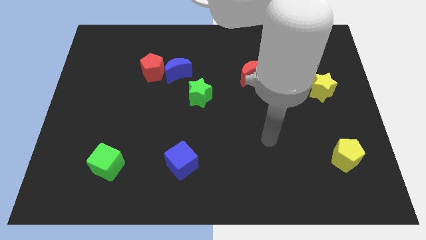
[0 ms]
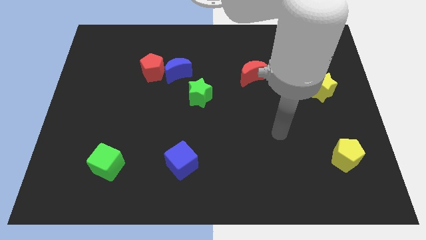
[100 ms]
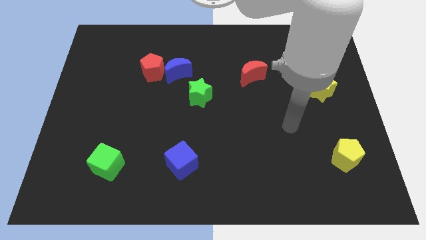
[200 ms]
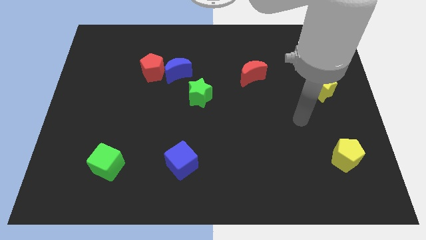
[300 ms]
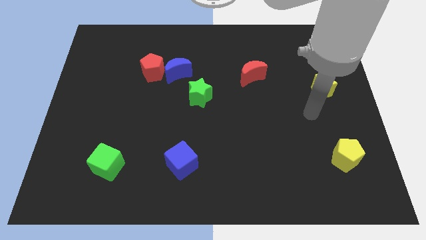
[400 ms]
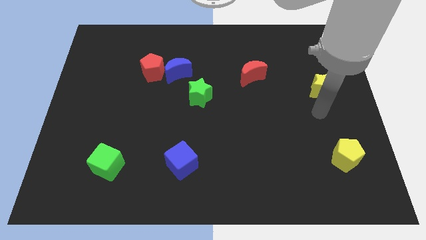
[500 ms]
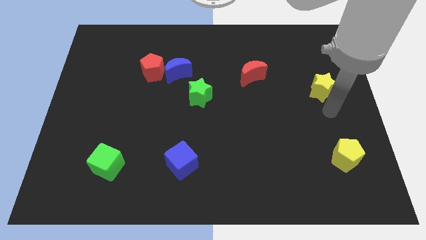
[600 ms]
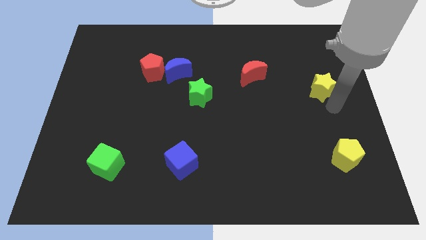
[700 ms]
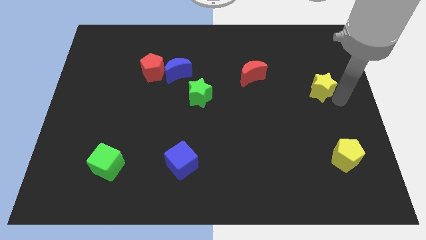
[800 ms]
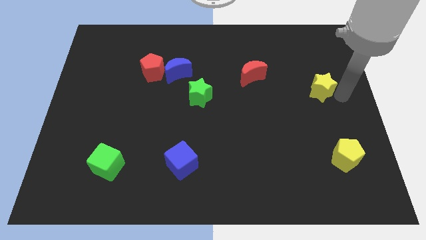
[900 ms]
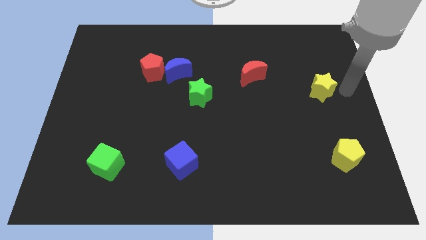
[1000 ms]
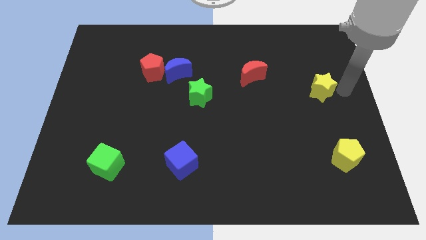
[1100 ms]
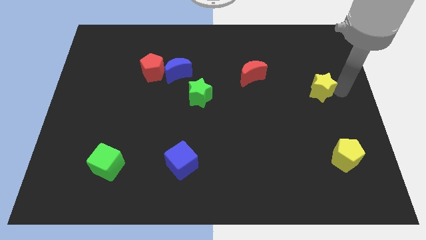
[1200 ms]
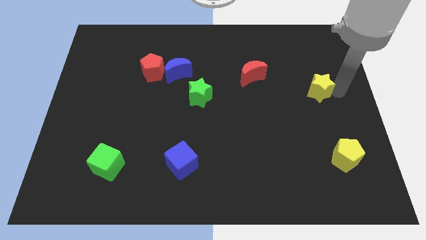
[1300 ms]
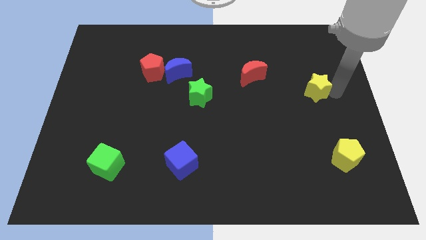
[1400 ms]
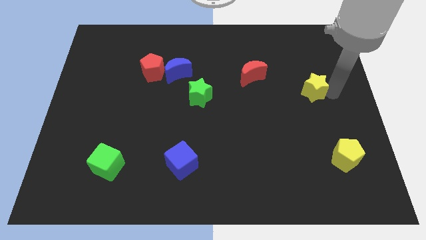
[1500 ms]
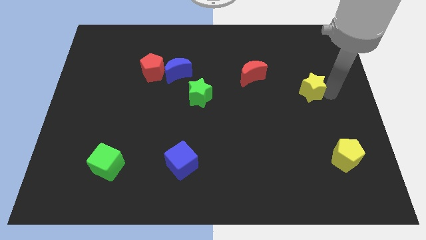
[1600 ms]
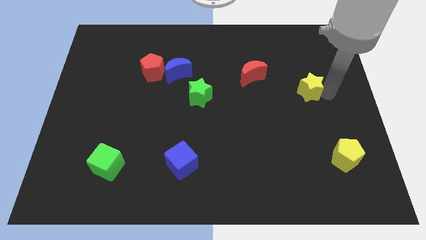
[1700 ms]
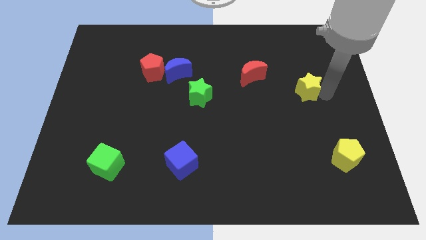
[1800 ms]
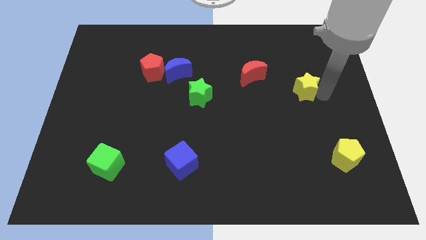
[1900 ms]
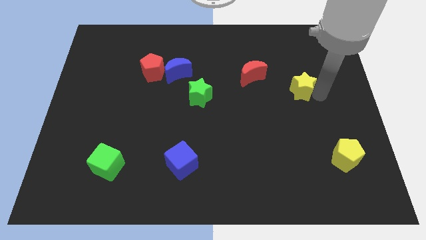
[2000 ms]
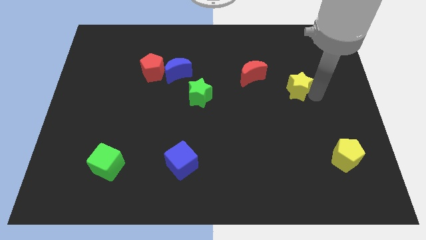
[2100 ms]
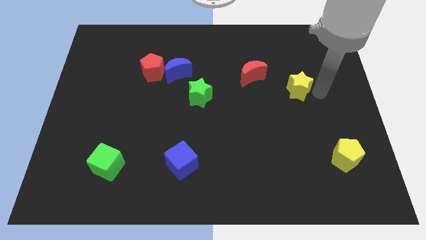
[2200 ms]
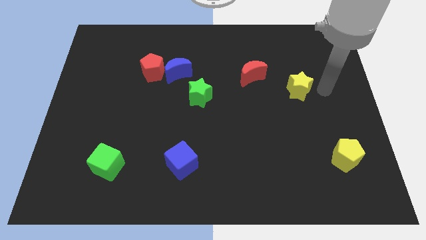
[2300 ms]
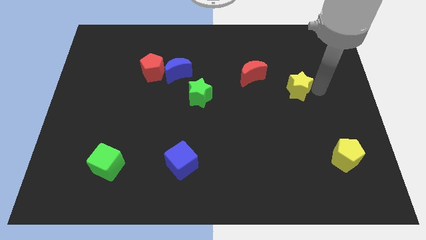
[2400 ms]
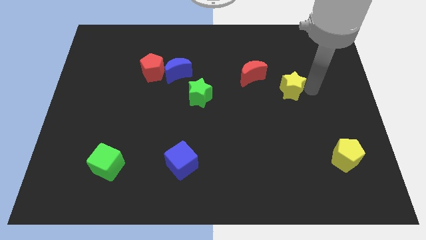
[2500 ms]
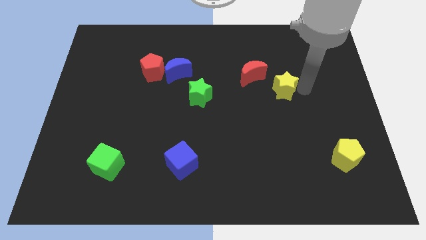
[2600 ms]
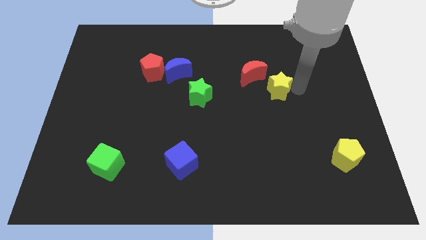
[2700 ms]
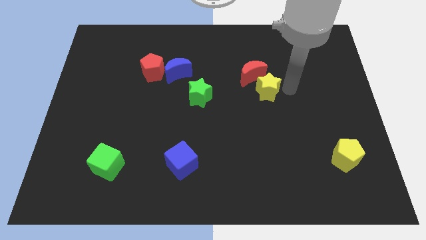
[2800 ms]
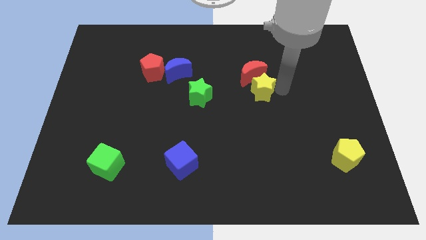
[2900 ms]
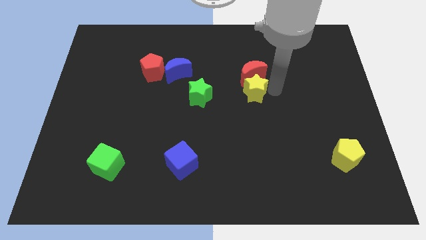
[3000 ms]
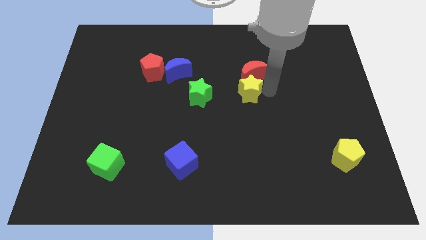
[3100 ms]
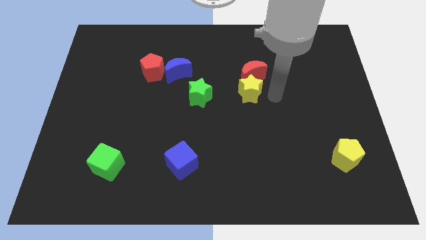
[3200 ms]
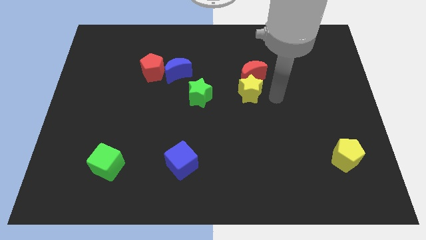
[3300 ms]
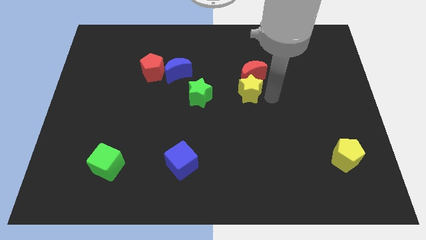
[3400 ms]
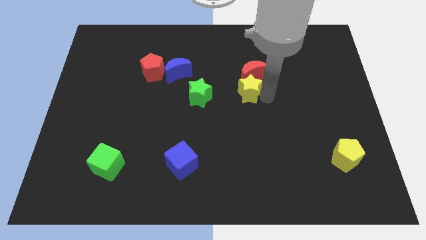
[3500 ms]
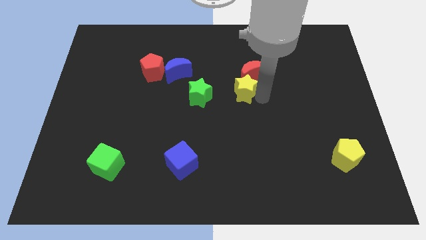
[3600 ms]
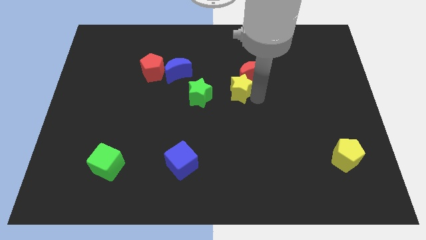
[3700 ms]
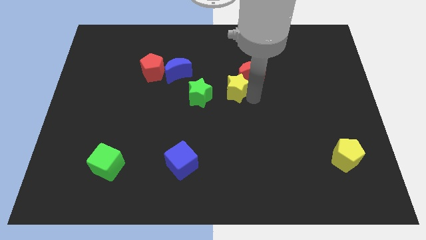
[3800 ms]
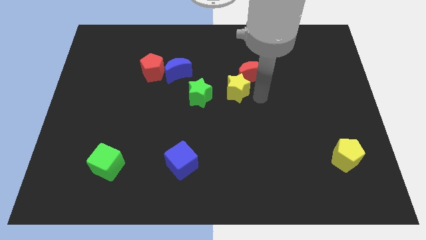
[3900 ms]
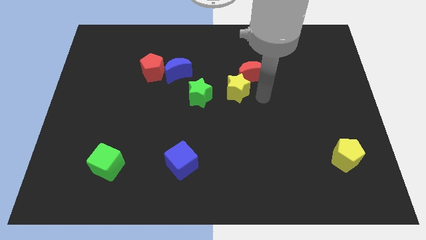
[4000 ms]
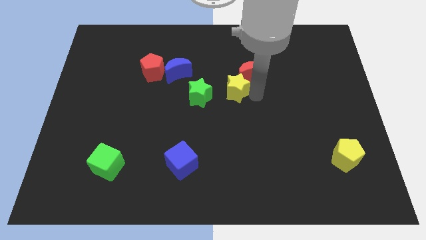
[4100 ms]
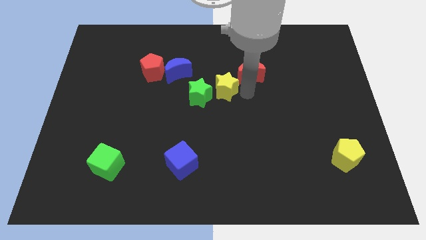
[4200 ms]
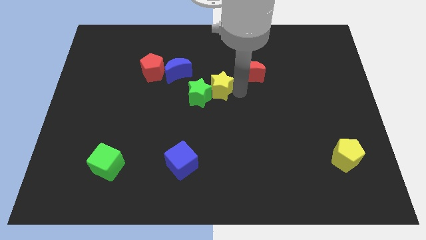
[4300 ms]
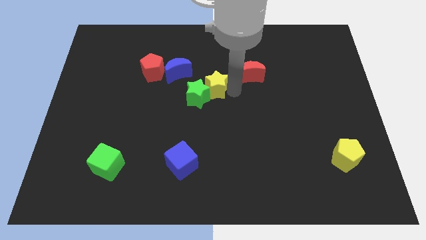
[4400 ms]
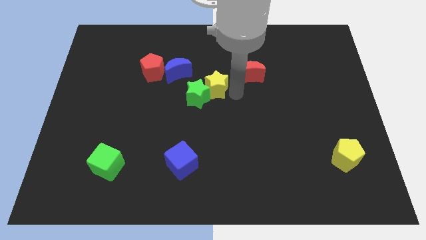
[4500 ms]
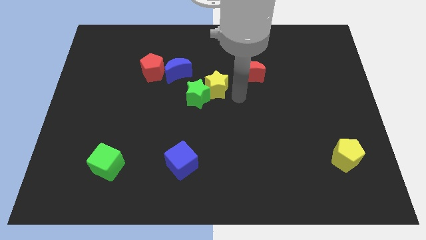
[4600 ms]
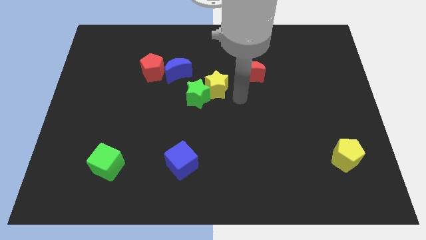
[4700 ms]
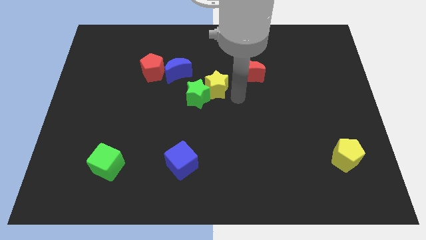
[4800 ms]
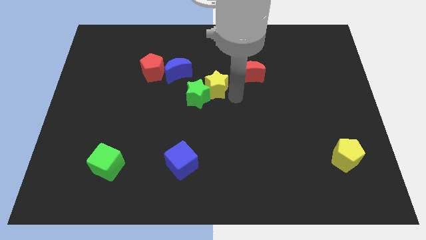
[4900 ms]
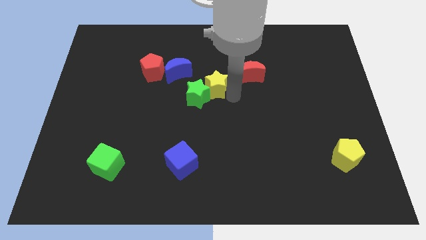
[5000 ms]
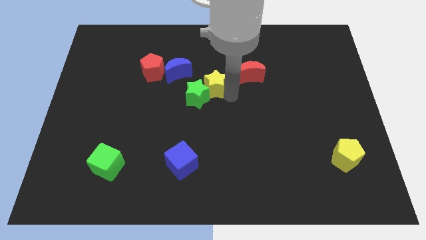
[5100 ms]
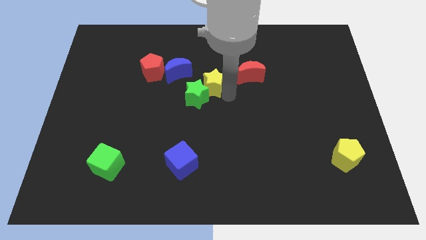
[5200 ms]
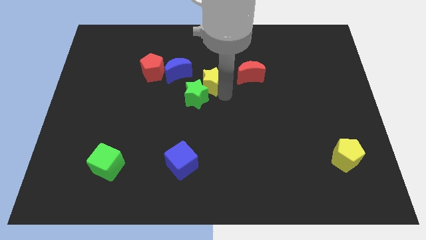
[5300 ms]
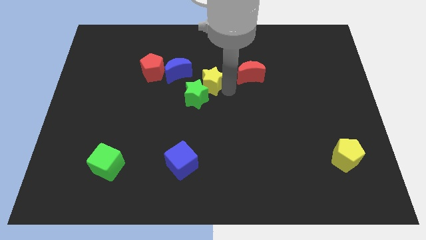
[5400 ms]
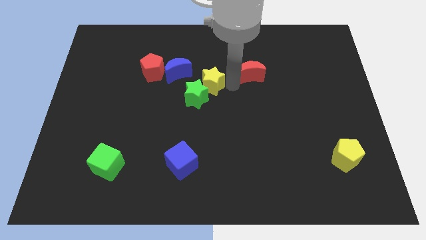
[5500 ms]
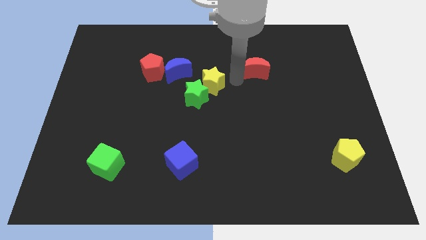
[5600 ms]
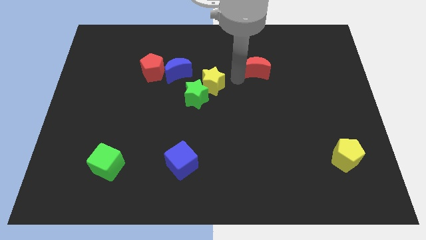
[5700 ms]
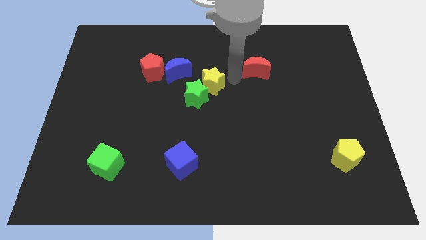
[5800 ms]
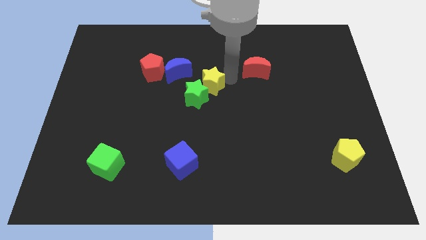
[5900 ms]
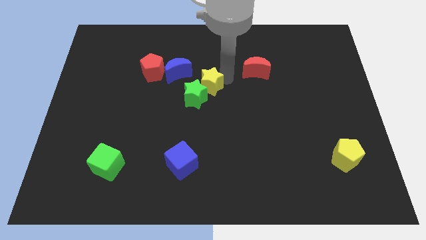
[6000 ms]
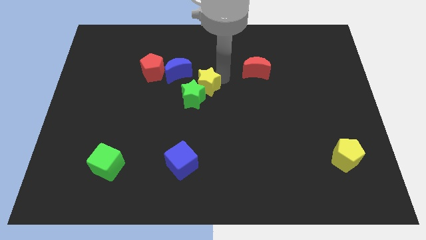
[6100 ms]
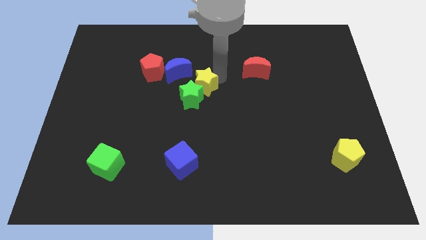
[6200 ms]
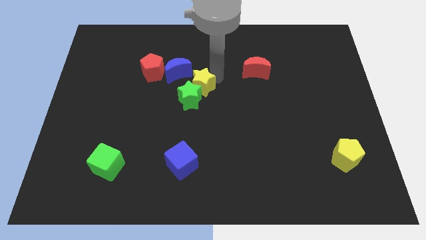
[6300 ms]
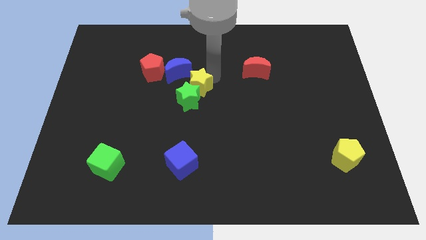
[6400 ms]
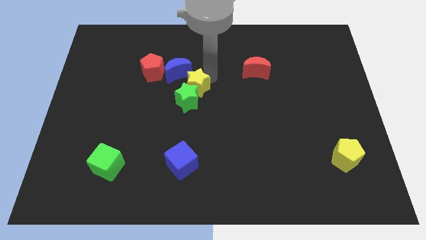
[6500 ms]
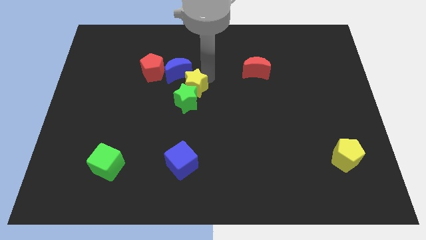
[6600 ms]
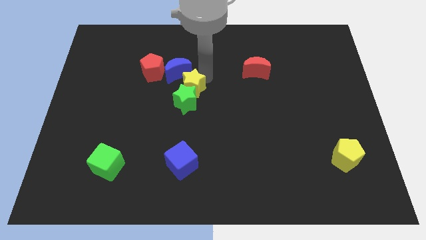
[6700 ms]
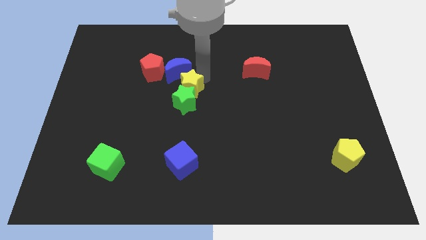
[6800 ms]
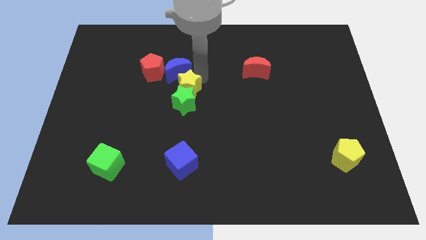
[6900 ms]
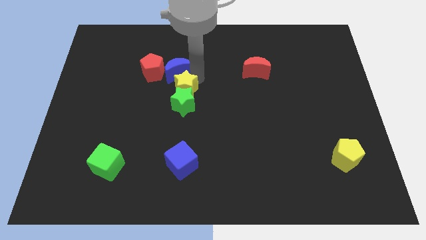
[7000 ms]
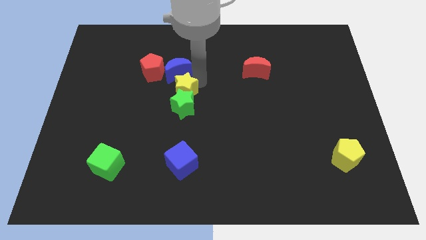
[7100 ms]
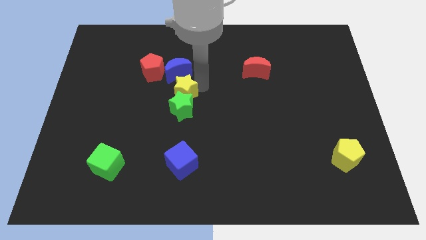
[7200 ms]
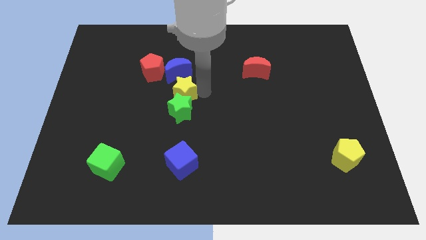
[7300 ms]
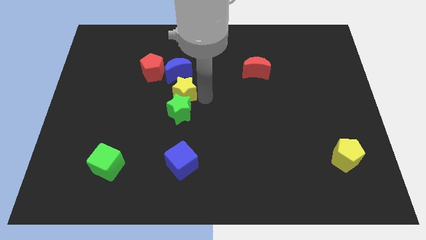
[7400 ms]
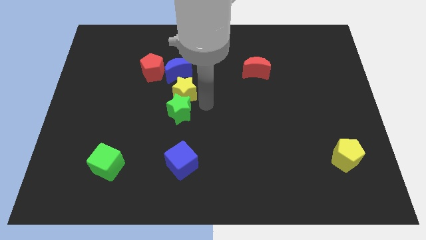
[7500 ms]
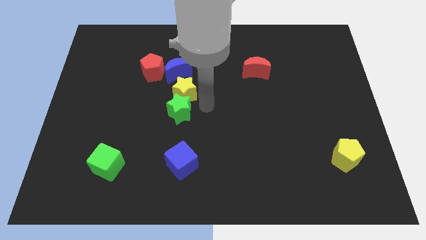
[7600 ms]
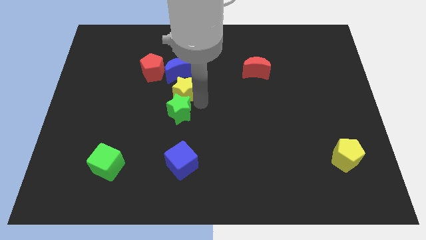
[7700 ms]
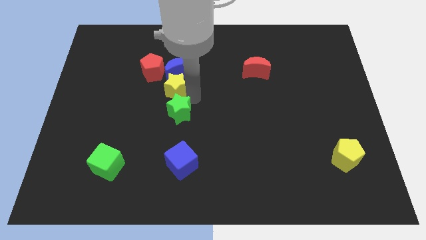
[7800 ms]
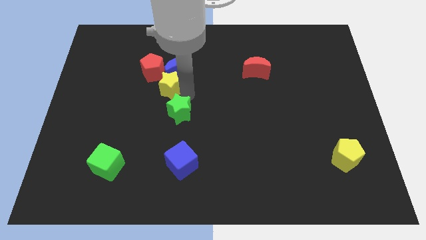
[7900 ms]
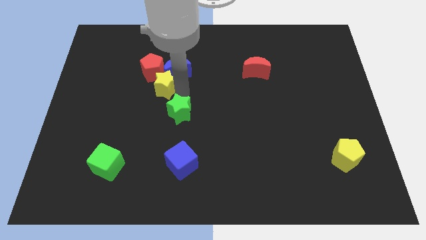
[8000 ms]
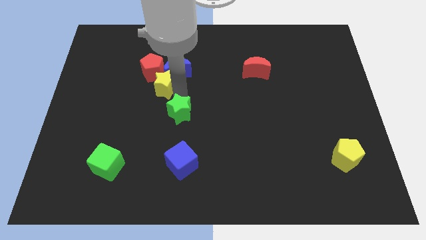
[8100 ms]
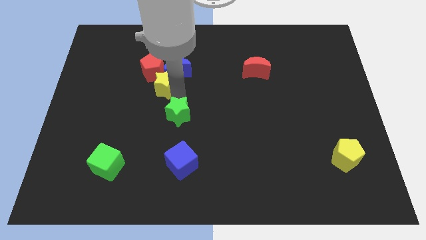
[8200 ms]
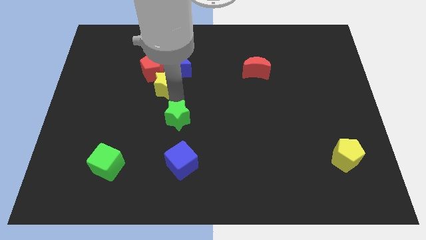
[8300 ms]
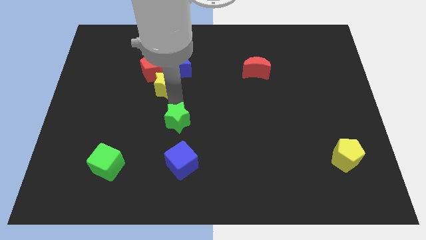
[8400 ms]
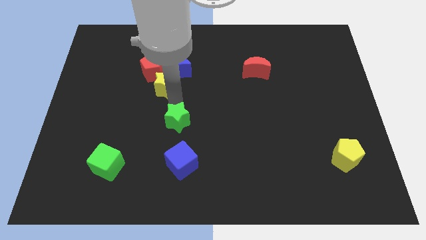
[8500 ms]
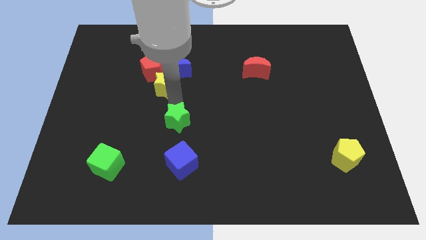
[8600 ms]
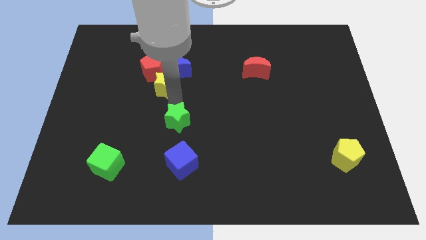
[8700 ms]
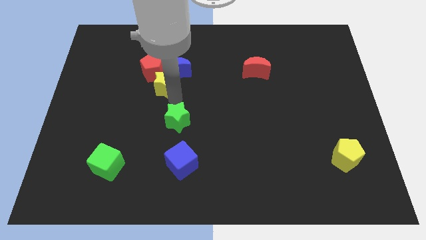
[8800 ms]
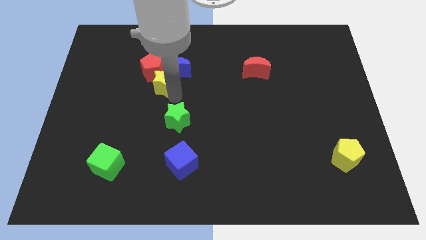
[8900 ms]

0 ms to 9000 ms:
slide the yellow star close to the red pentagon
